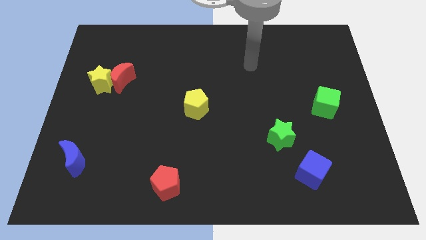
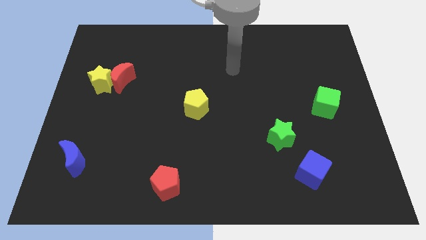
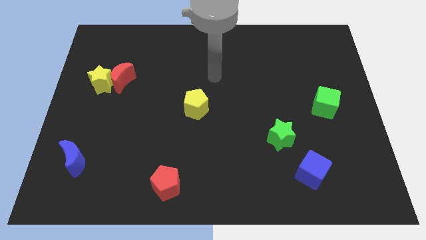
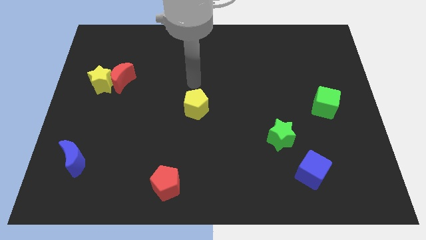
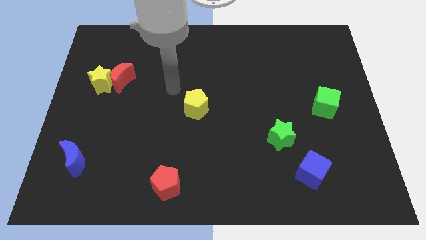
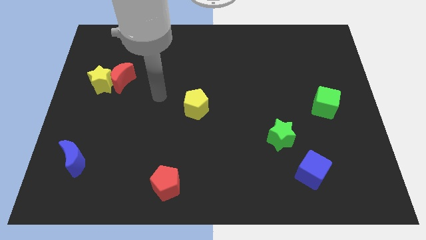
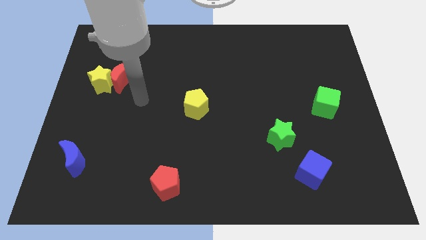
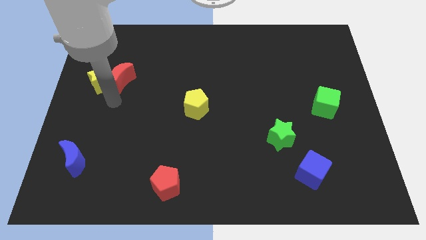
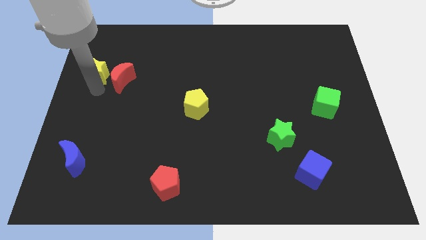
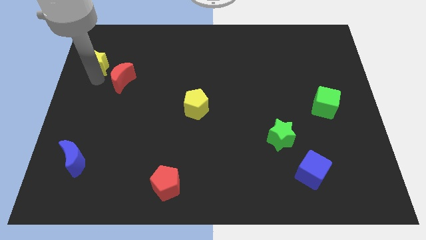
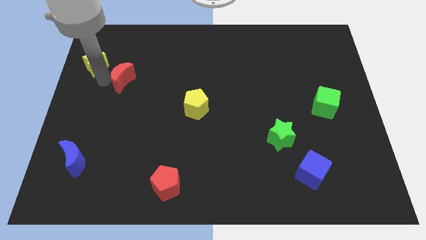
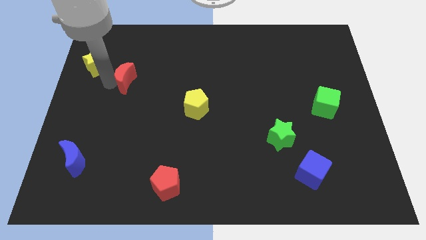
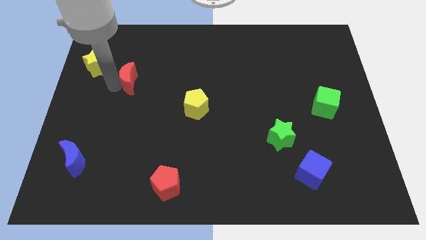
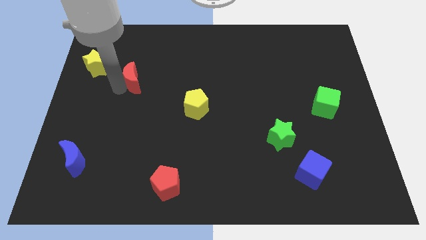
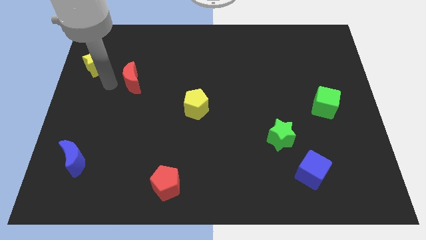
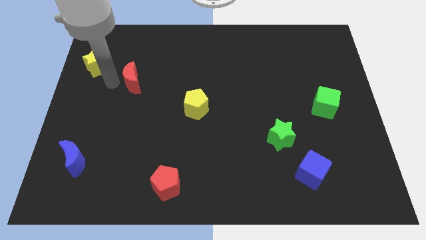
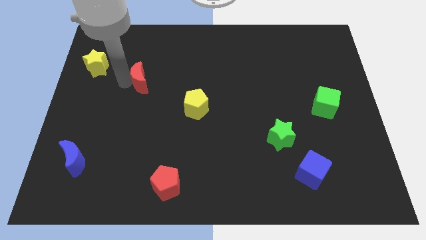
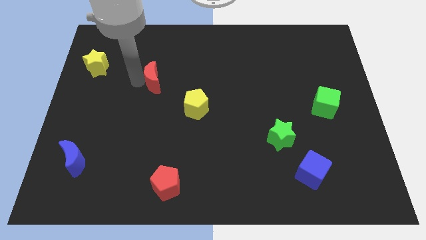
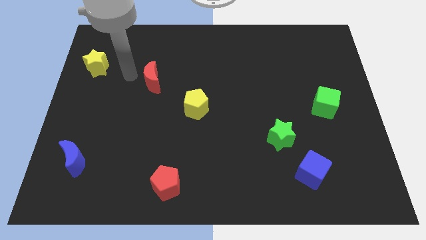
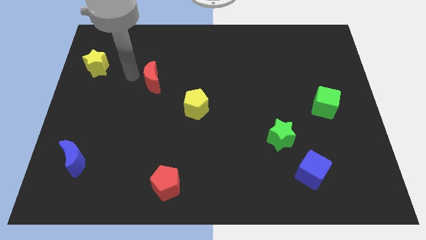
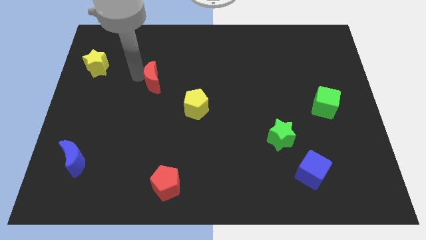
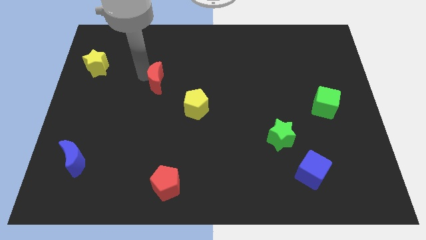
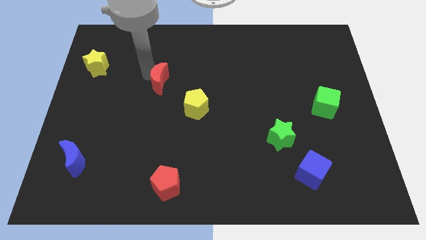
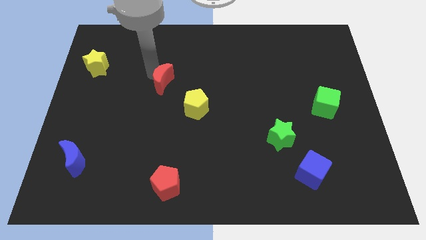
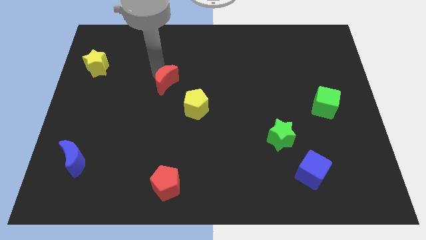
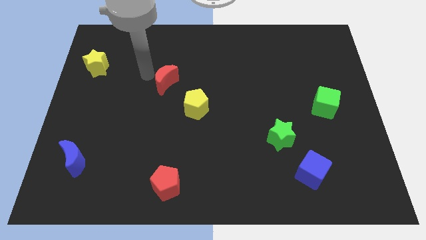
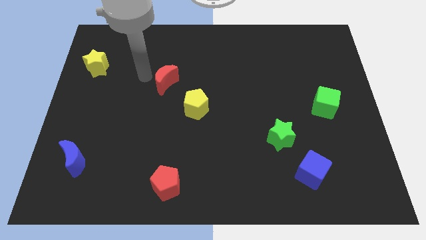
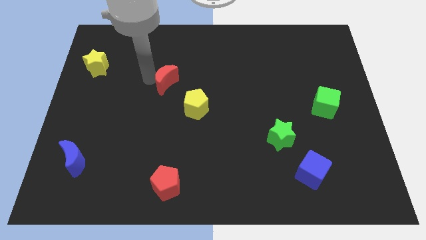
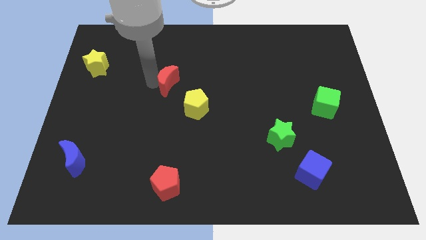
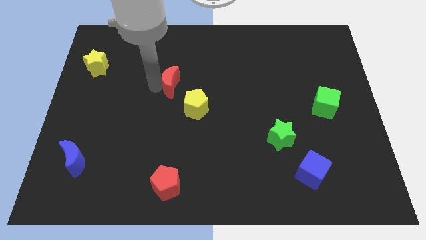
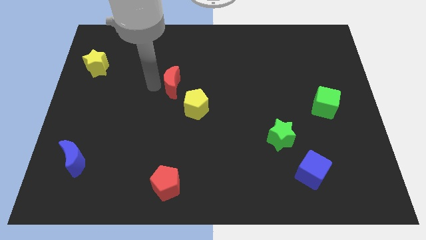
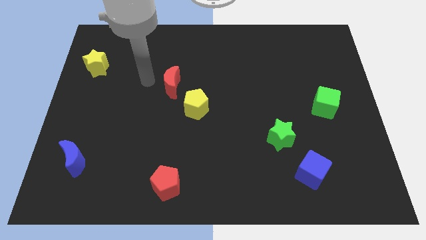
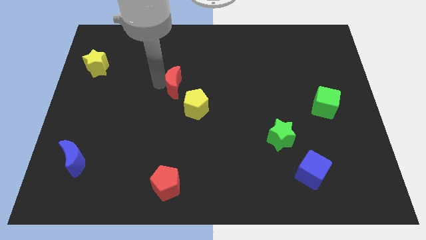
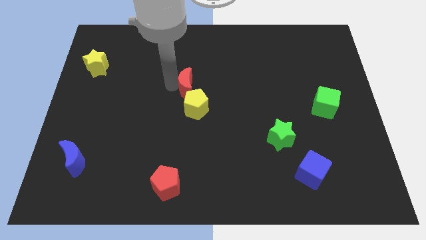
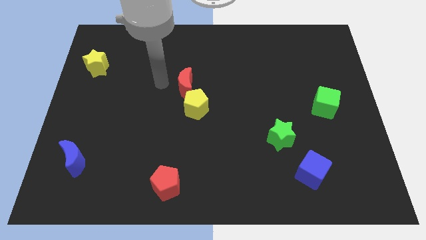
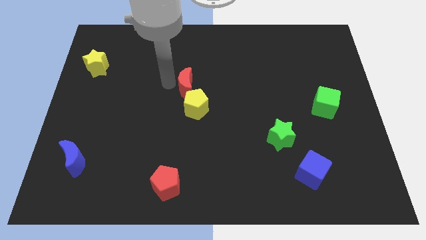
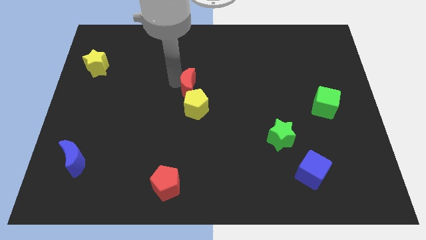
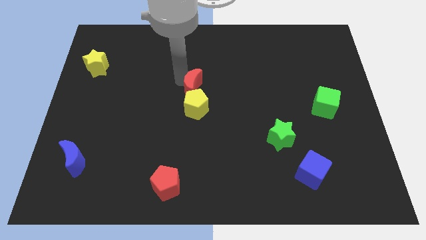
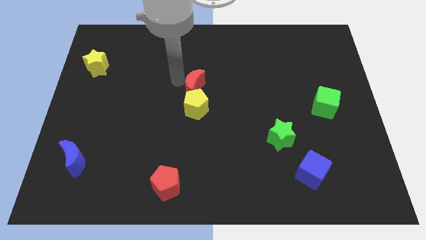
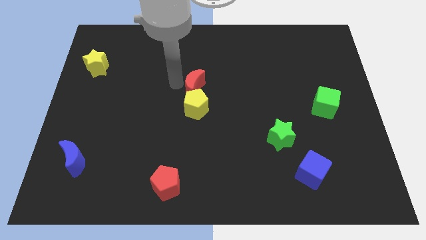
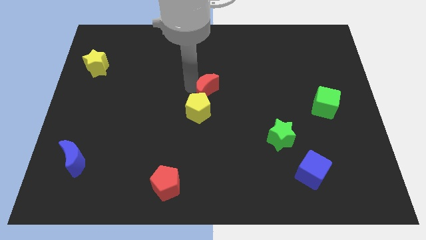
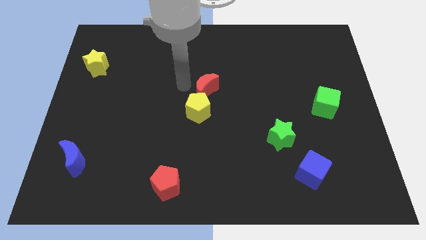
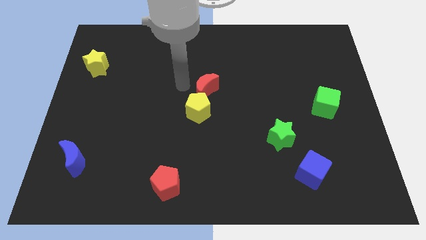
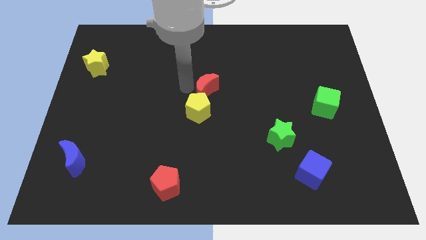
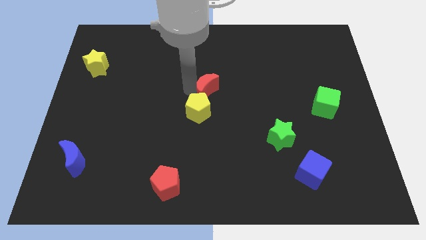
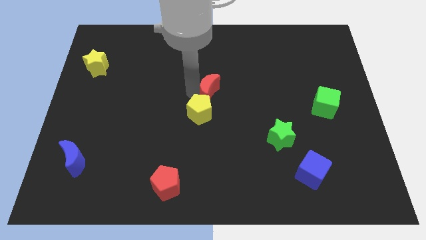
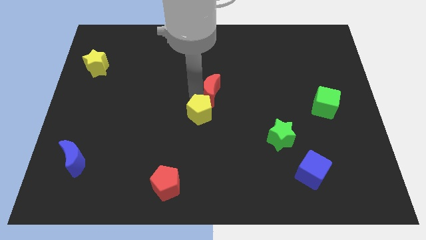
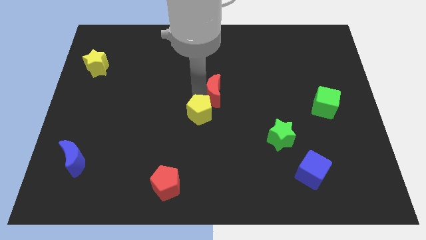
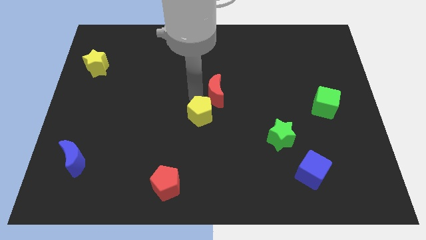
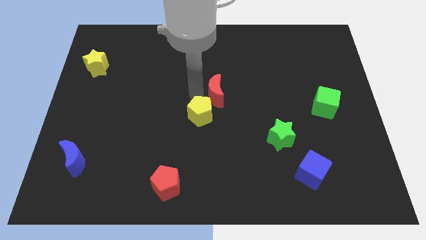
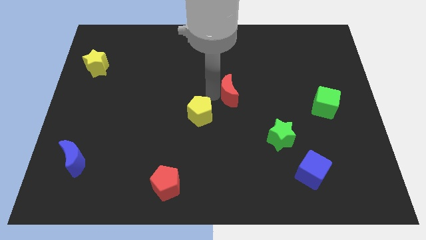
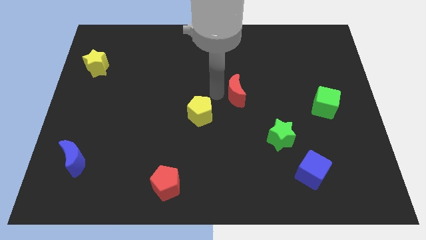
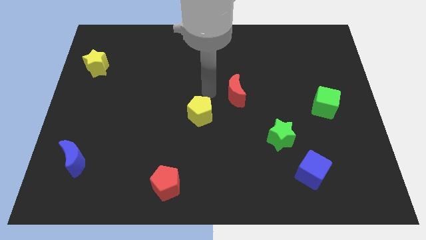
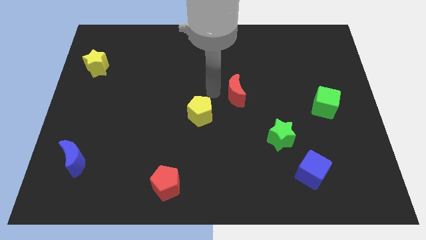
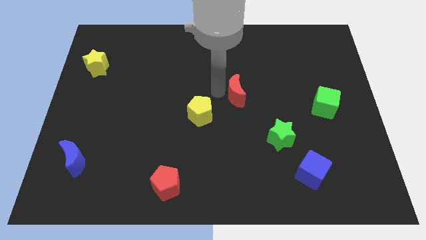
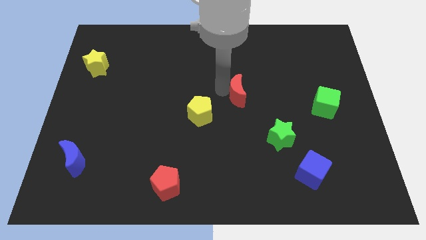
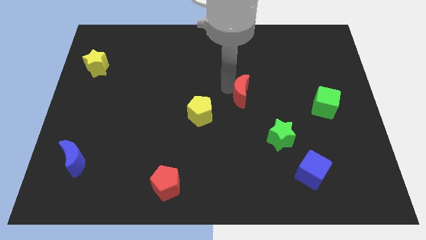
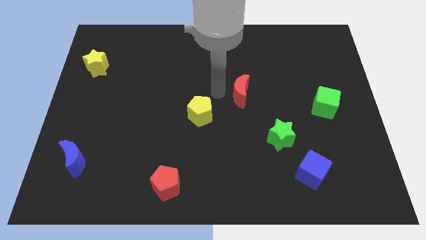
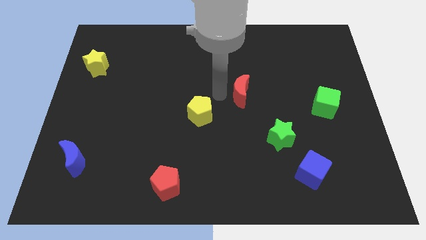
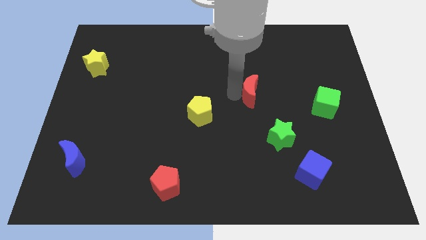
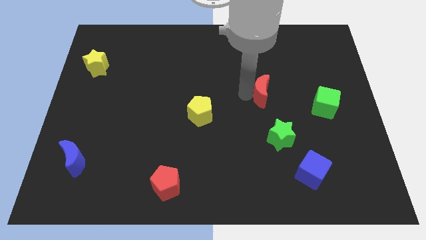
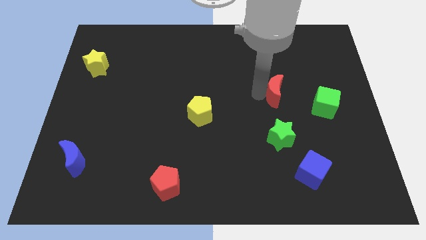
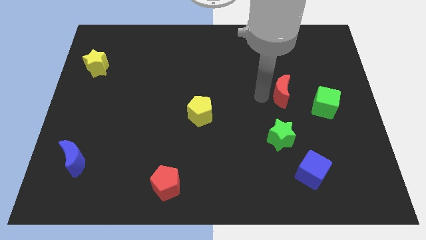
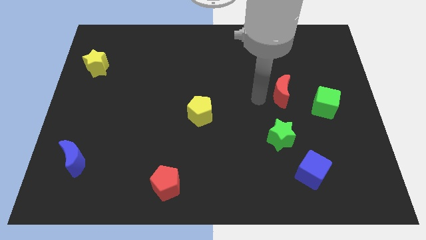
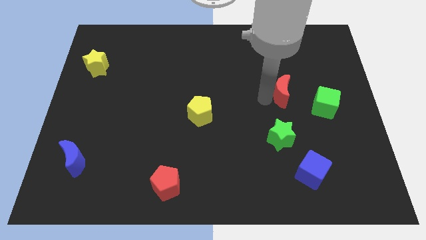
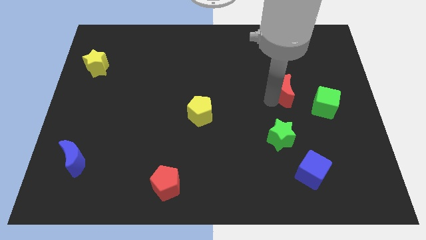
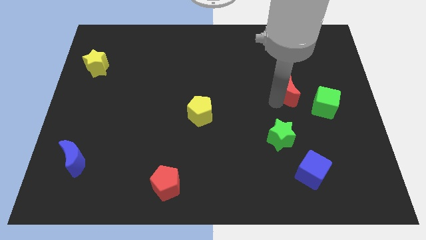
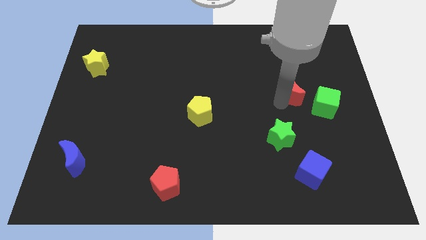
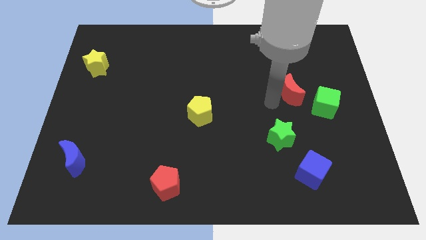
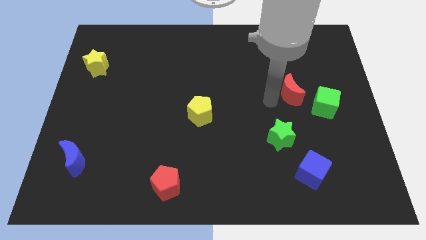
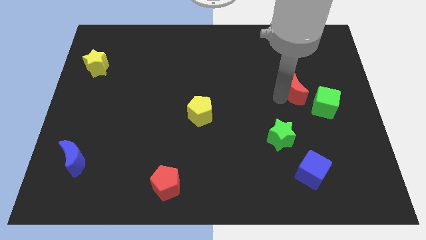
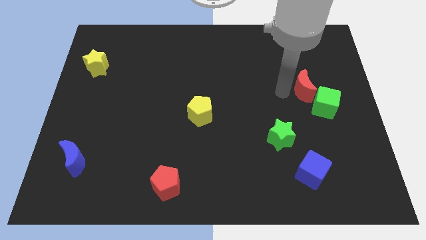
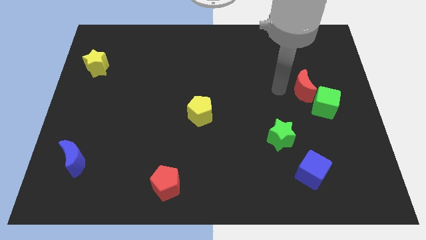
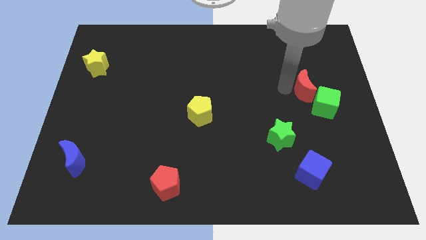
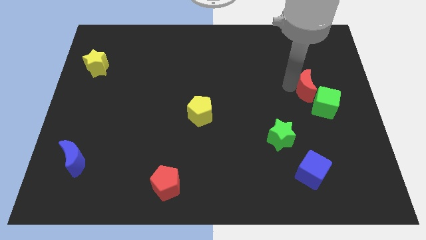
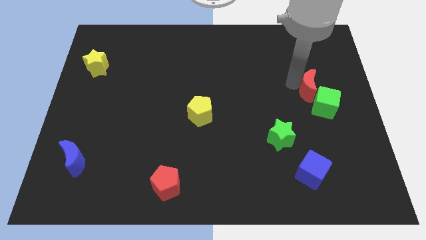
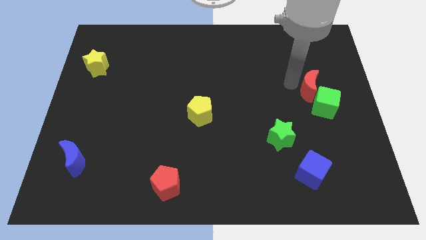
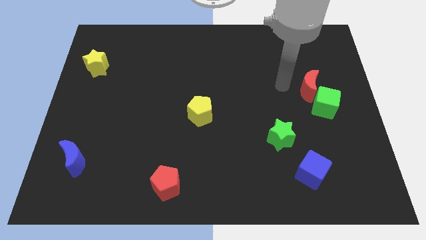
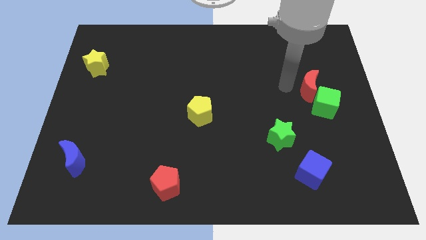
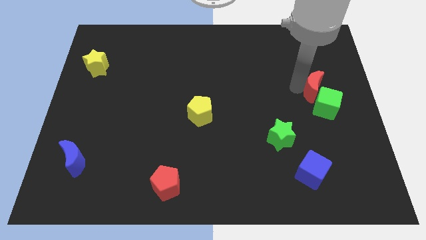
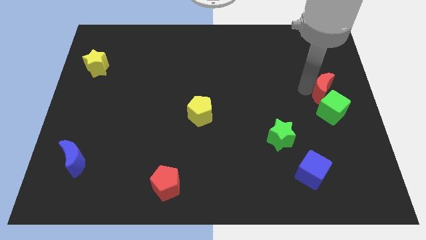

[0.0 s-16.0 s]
slide the red moon to the right side
